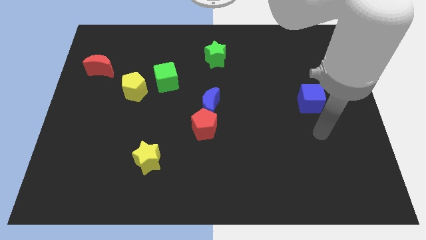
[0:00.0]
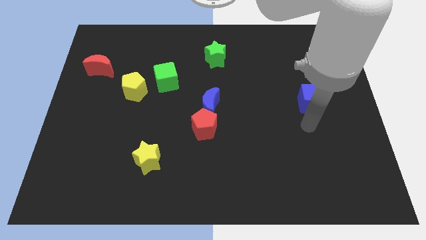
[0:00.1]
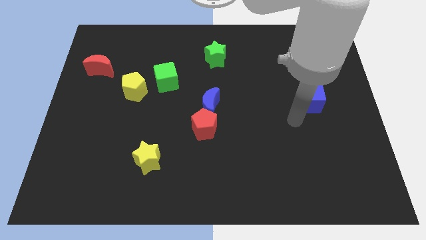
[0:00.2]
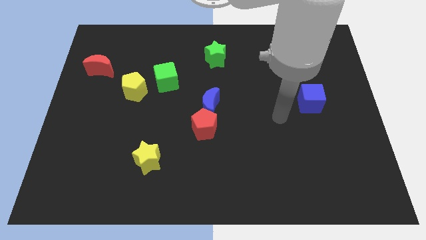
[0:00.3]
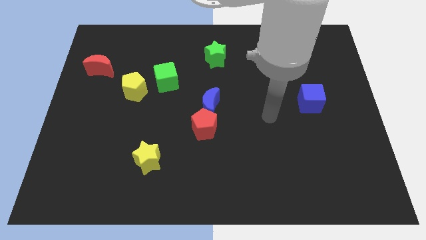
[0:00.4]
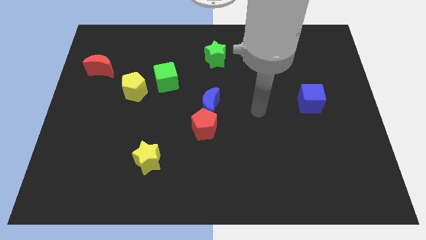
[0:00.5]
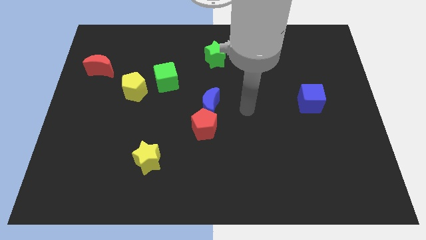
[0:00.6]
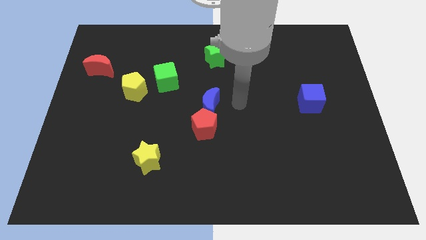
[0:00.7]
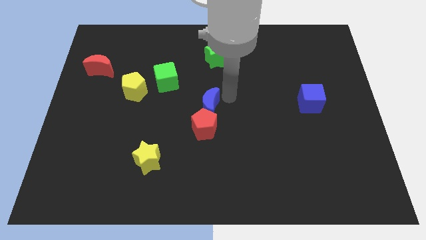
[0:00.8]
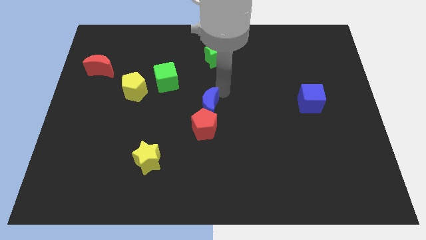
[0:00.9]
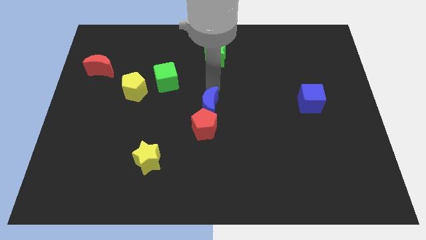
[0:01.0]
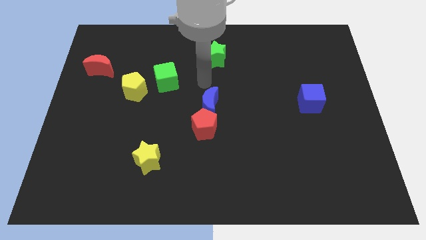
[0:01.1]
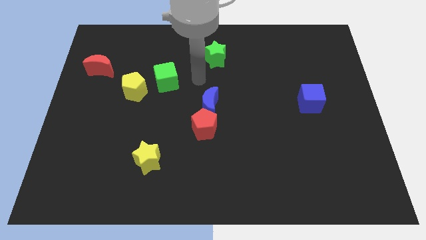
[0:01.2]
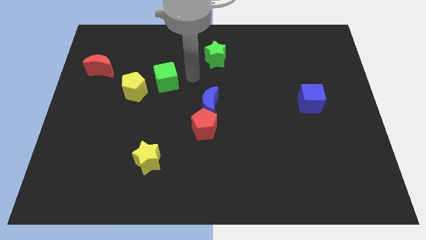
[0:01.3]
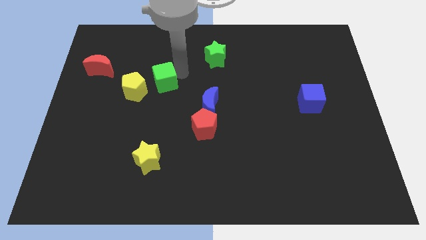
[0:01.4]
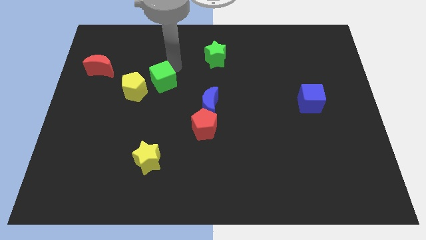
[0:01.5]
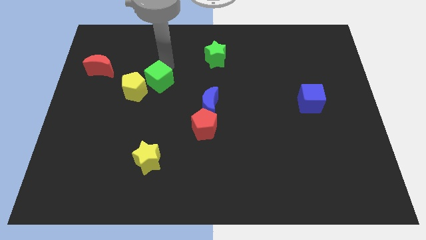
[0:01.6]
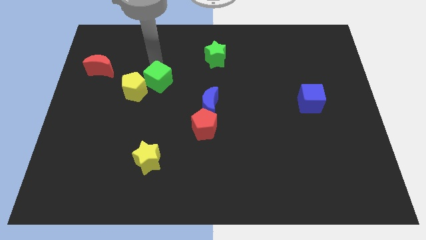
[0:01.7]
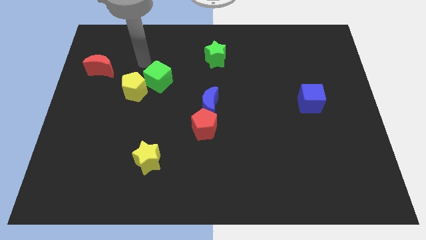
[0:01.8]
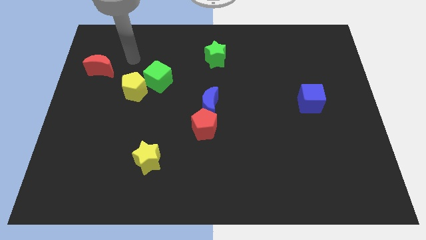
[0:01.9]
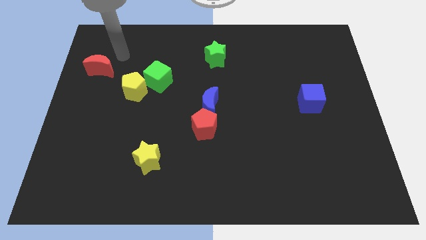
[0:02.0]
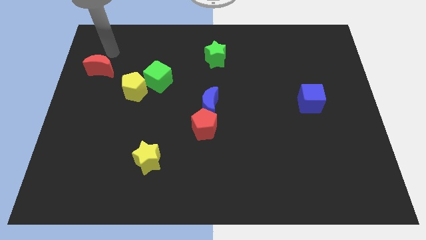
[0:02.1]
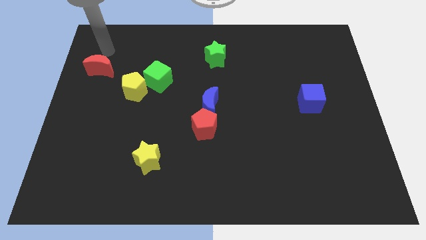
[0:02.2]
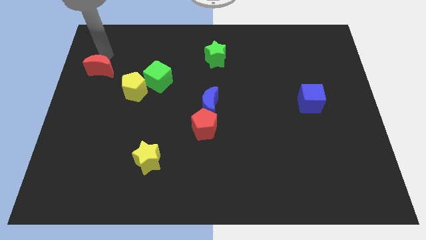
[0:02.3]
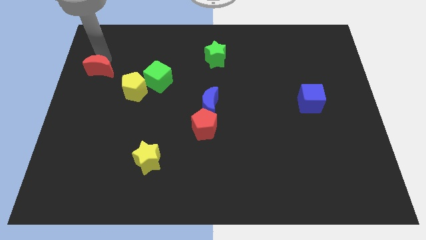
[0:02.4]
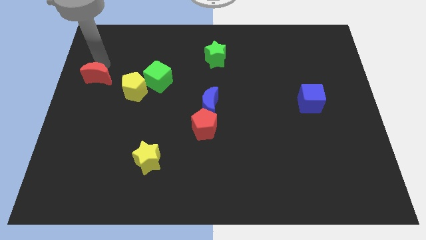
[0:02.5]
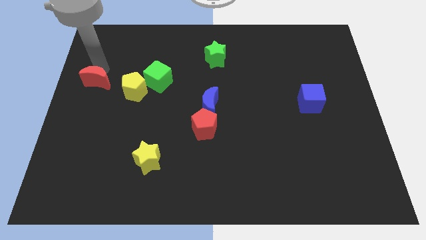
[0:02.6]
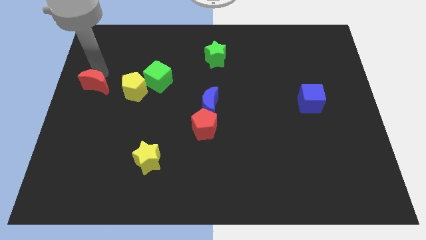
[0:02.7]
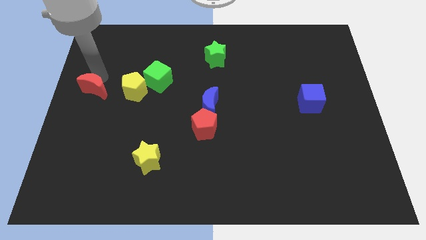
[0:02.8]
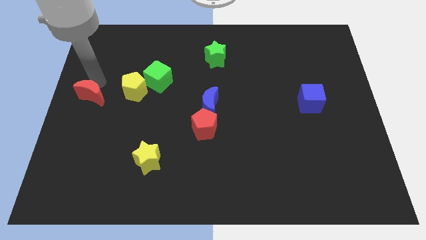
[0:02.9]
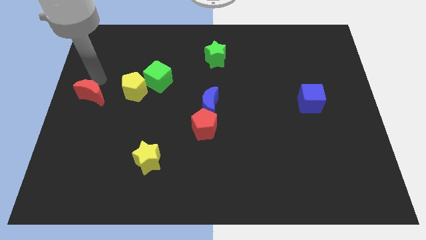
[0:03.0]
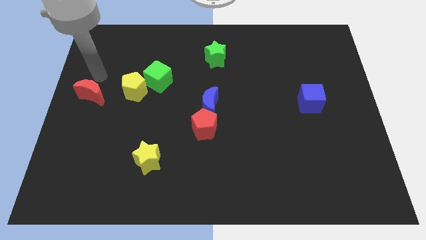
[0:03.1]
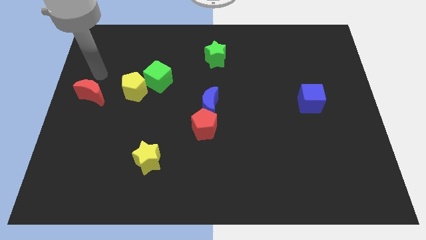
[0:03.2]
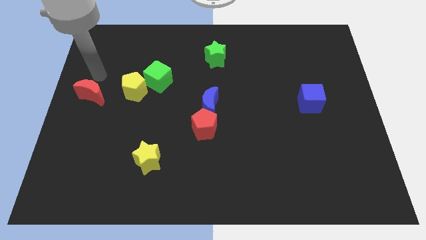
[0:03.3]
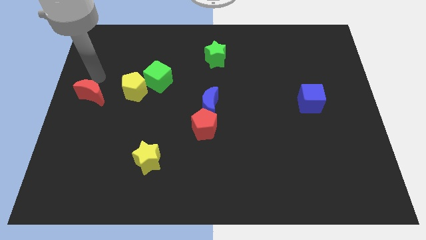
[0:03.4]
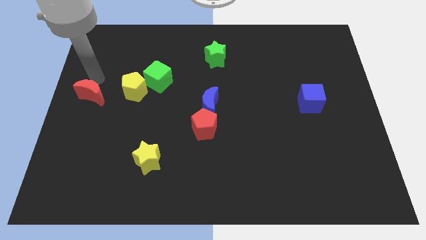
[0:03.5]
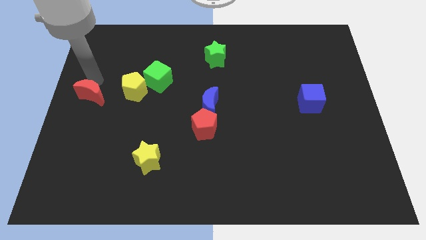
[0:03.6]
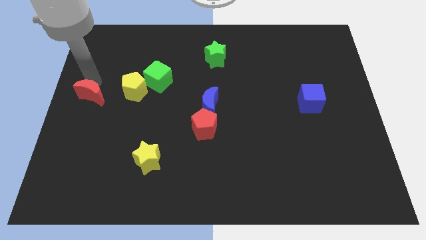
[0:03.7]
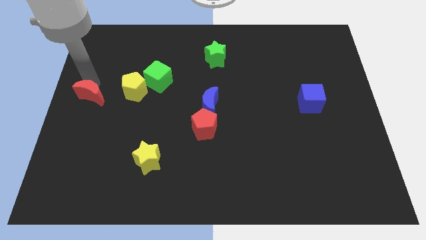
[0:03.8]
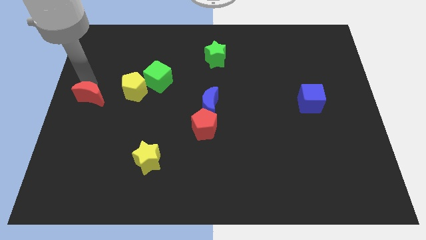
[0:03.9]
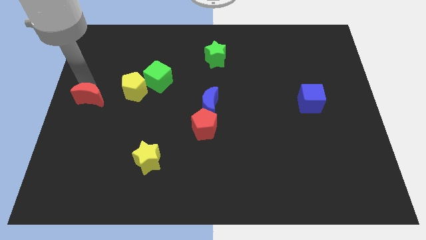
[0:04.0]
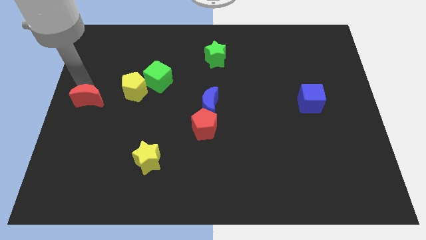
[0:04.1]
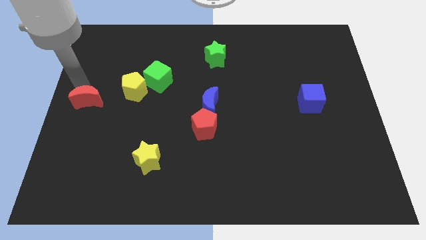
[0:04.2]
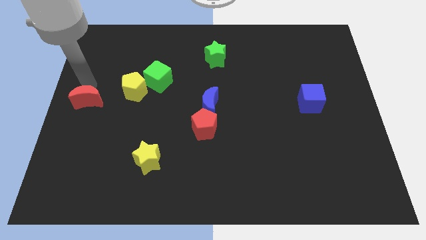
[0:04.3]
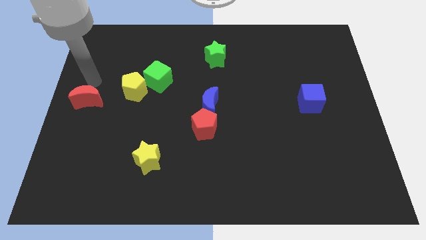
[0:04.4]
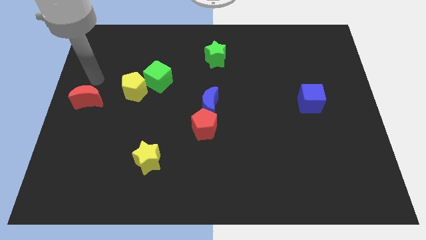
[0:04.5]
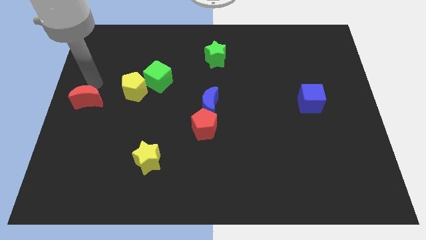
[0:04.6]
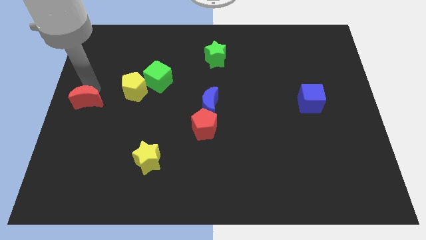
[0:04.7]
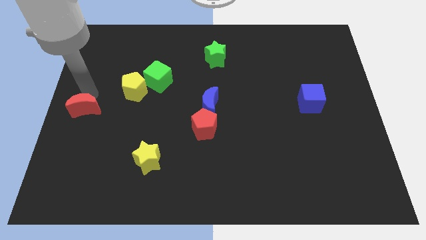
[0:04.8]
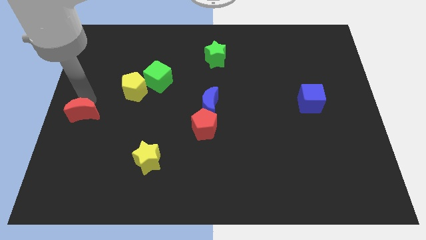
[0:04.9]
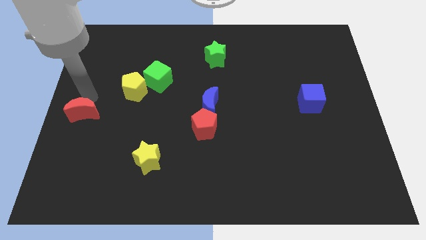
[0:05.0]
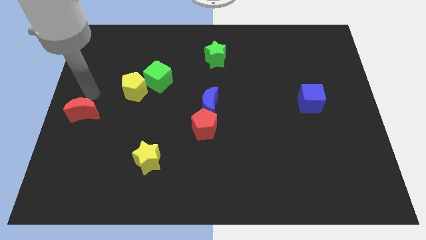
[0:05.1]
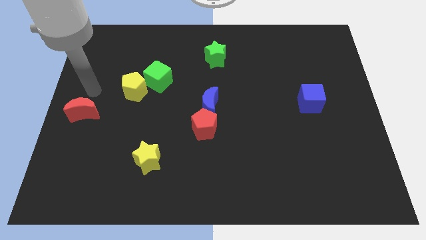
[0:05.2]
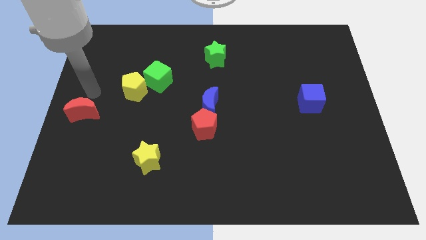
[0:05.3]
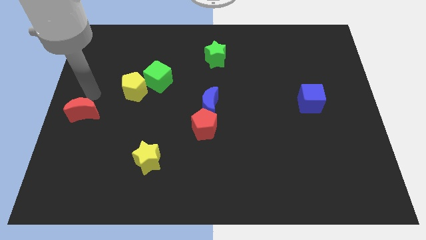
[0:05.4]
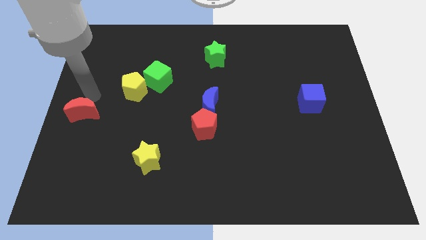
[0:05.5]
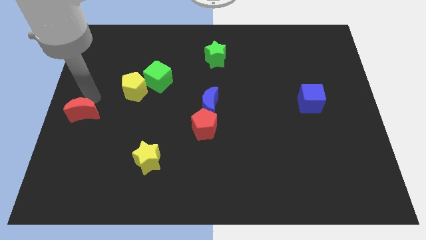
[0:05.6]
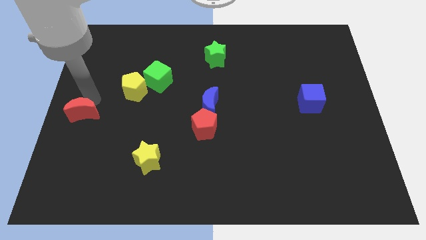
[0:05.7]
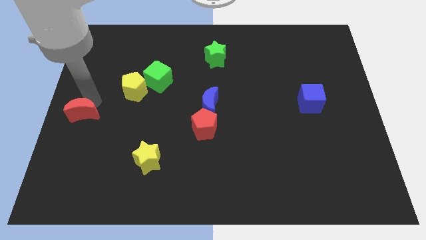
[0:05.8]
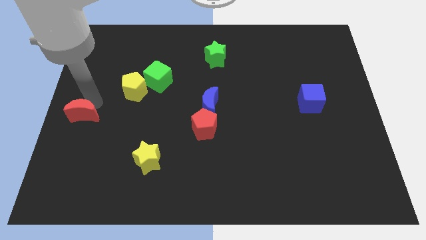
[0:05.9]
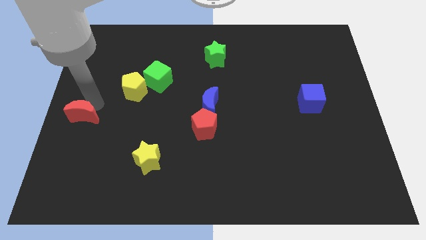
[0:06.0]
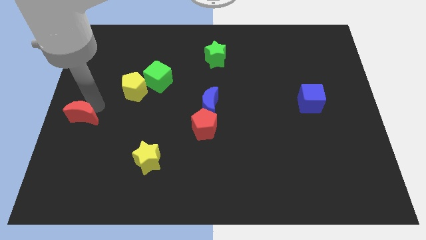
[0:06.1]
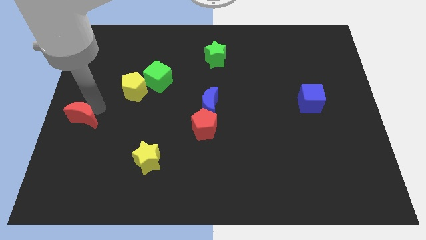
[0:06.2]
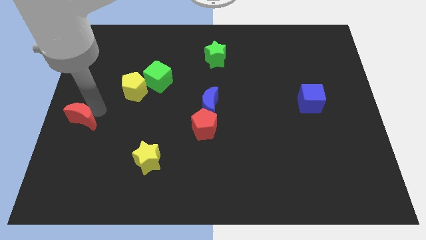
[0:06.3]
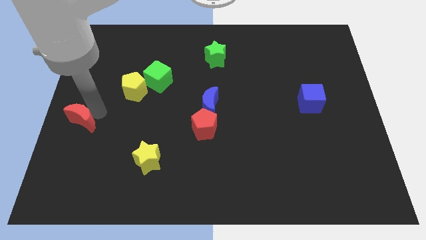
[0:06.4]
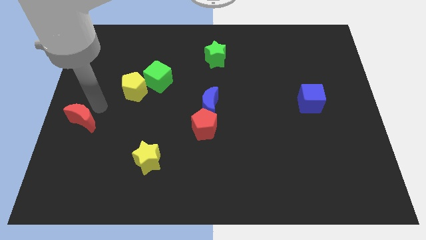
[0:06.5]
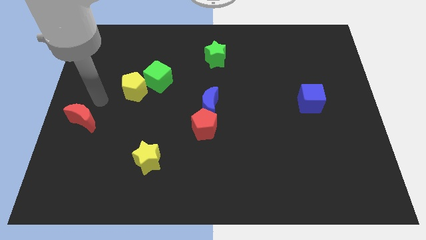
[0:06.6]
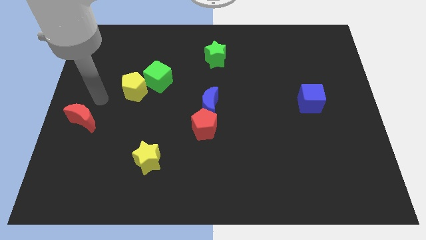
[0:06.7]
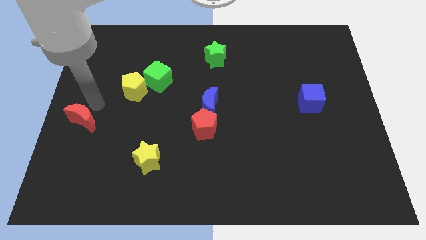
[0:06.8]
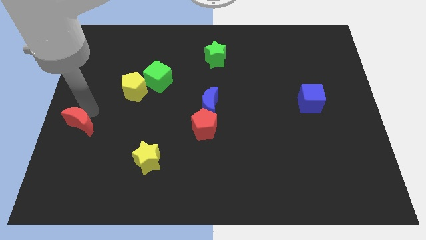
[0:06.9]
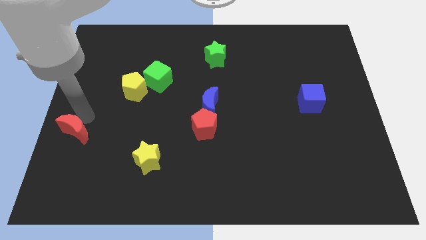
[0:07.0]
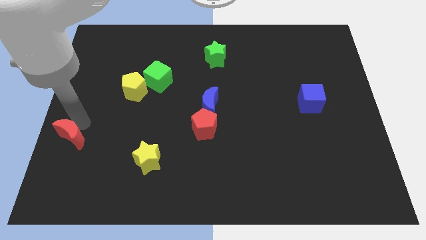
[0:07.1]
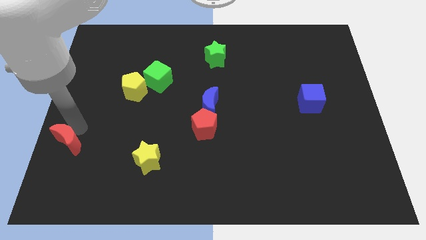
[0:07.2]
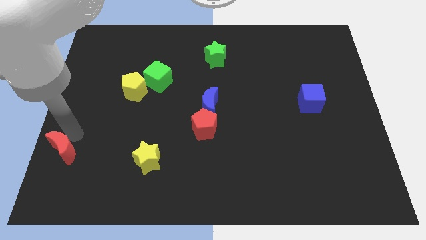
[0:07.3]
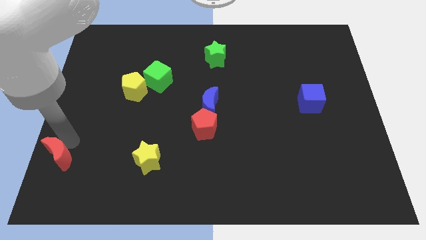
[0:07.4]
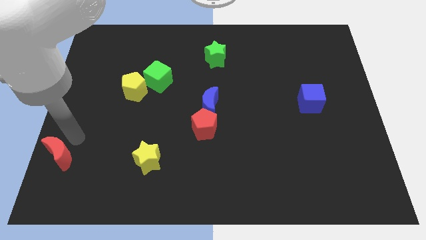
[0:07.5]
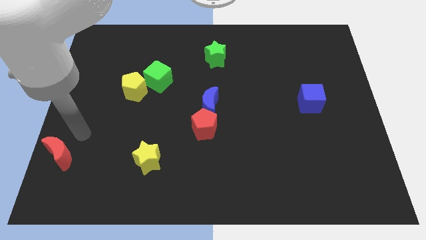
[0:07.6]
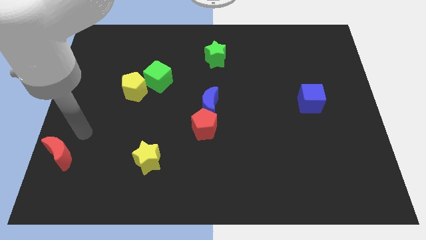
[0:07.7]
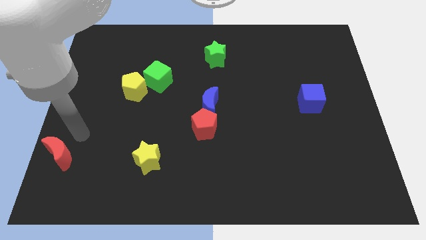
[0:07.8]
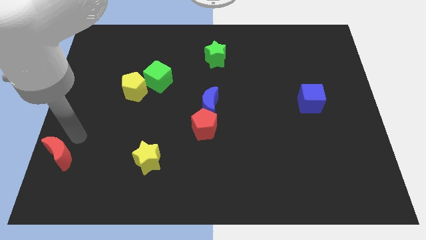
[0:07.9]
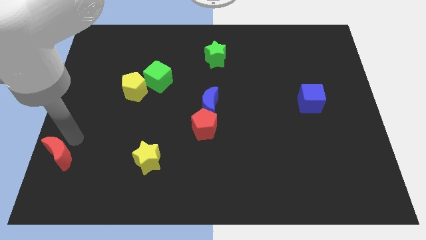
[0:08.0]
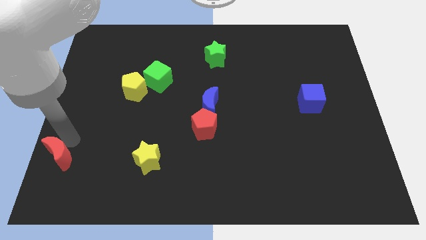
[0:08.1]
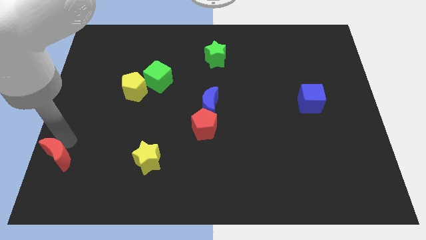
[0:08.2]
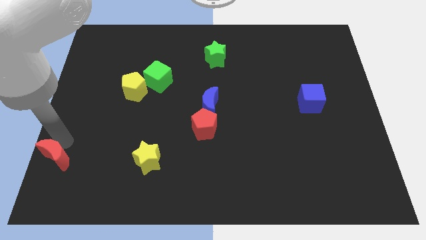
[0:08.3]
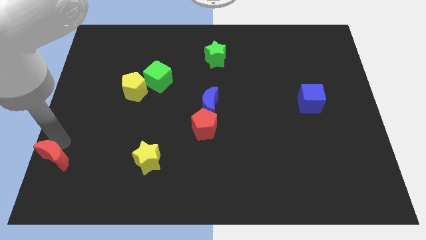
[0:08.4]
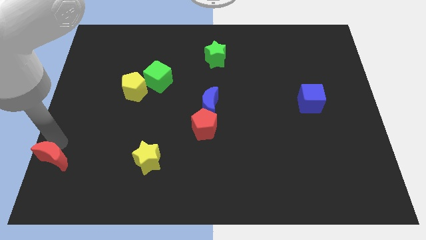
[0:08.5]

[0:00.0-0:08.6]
put the red moon to the lower left corner
